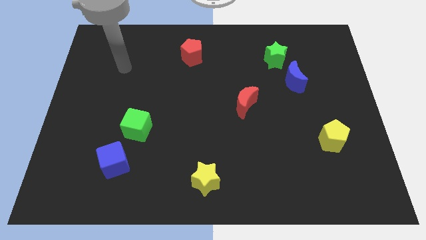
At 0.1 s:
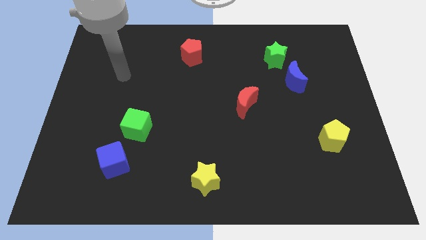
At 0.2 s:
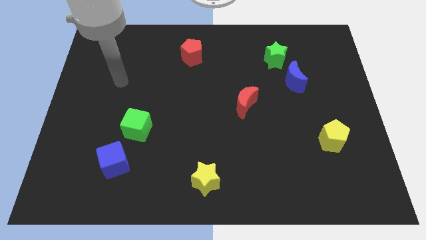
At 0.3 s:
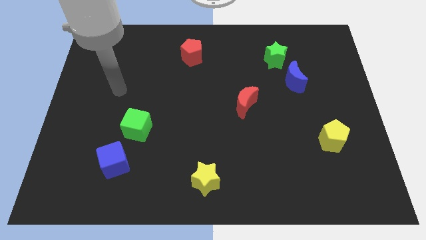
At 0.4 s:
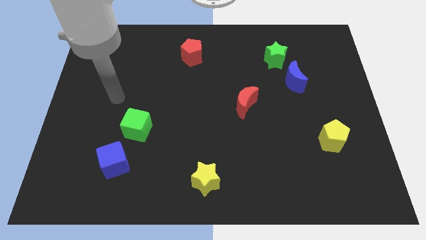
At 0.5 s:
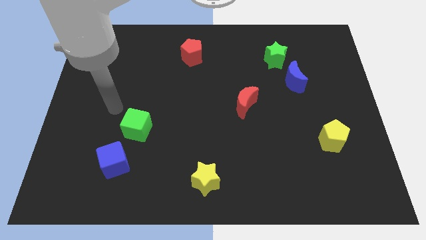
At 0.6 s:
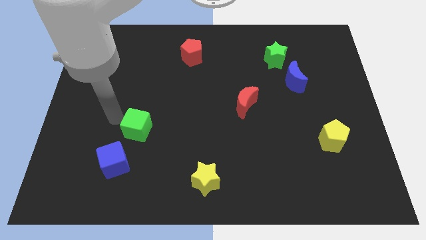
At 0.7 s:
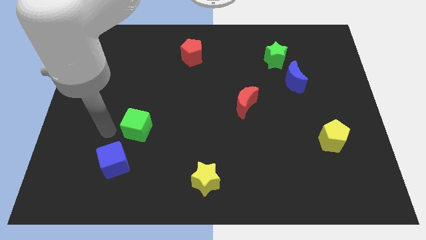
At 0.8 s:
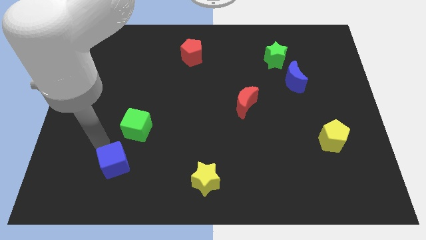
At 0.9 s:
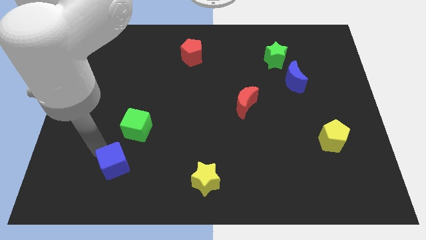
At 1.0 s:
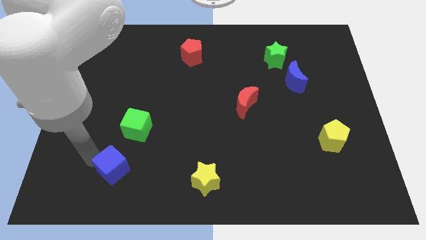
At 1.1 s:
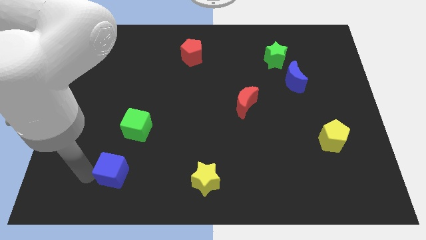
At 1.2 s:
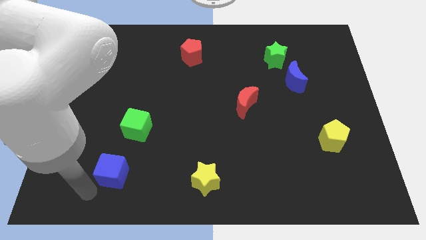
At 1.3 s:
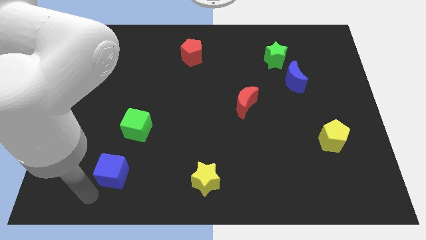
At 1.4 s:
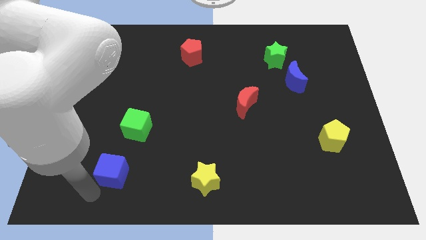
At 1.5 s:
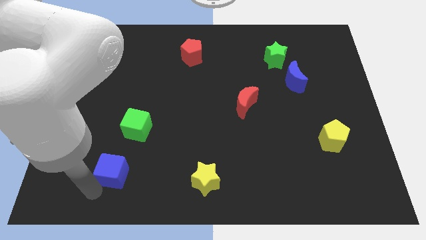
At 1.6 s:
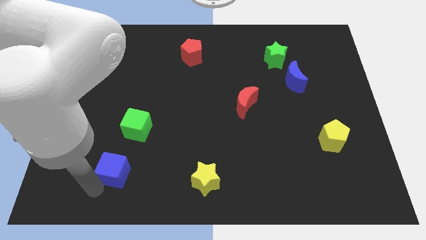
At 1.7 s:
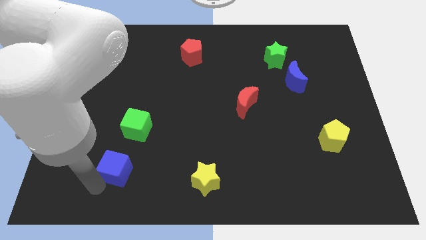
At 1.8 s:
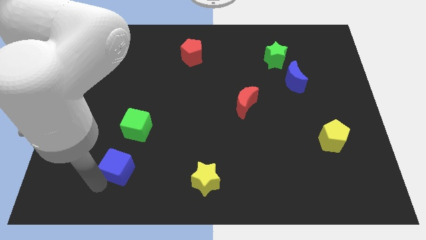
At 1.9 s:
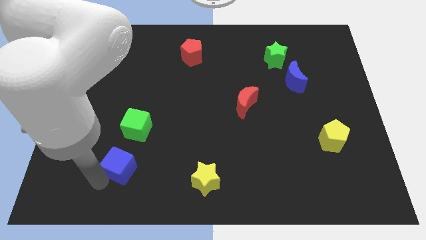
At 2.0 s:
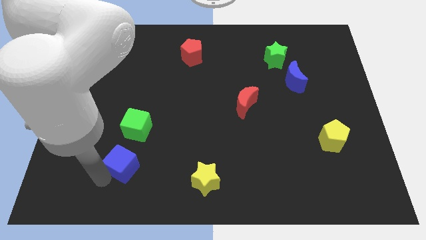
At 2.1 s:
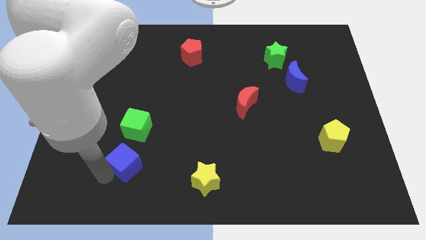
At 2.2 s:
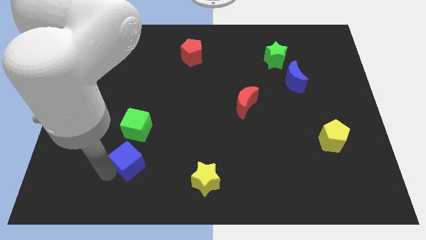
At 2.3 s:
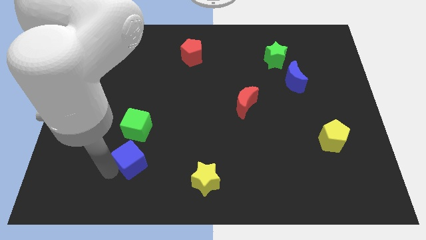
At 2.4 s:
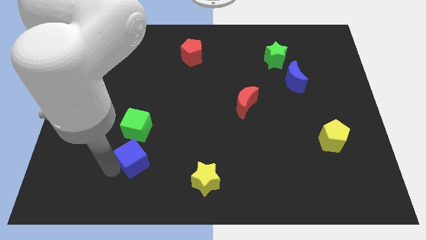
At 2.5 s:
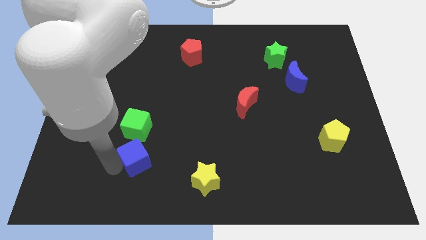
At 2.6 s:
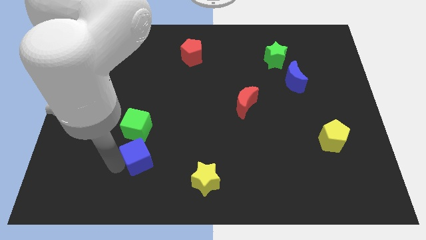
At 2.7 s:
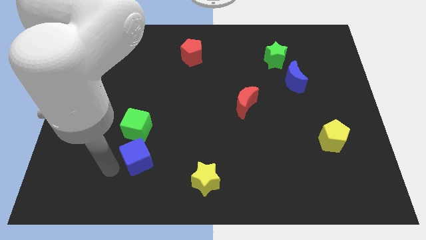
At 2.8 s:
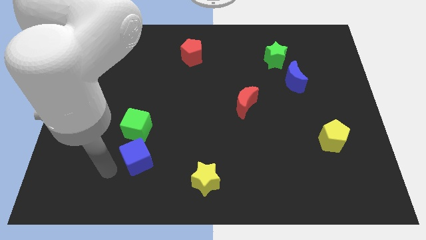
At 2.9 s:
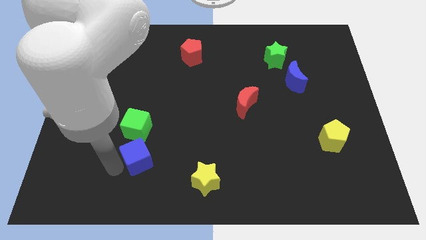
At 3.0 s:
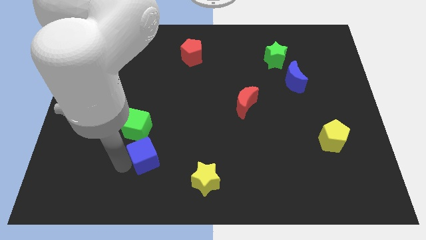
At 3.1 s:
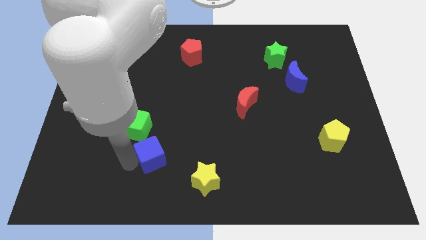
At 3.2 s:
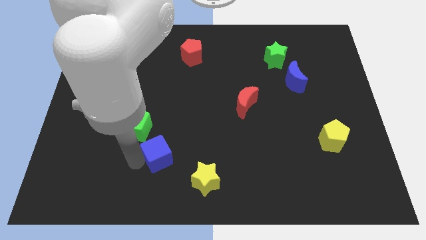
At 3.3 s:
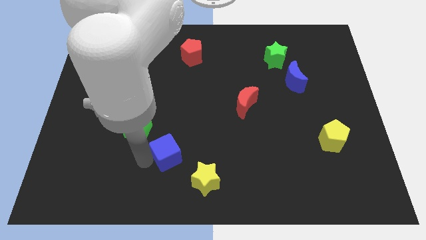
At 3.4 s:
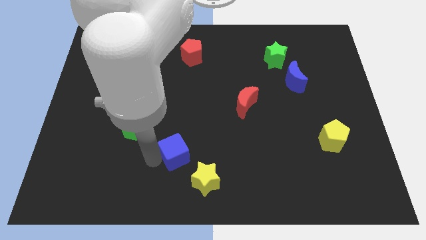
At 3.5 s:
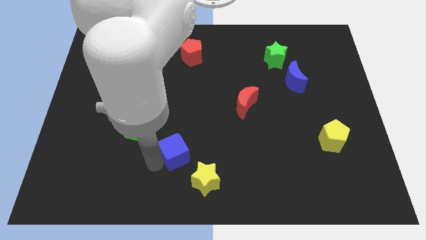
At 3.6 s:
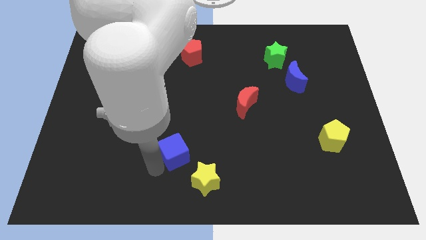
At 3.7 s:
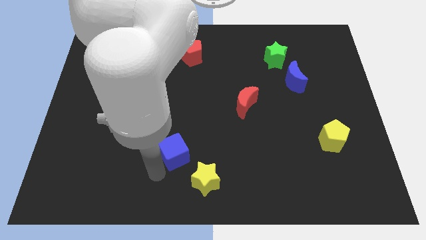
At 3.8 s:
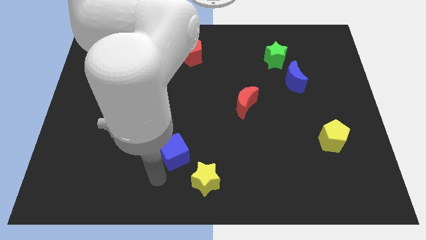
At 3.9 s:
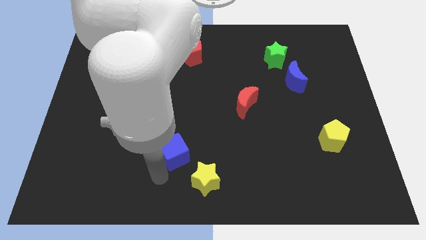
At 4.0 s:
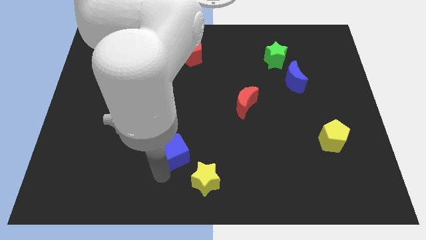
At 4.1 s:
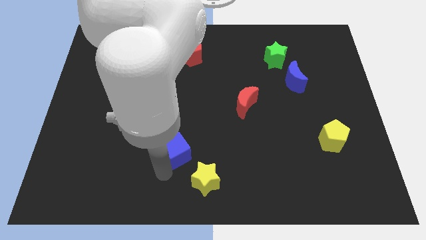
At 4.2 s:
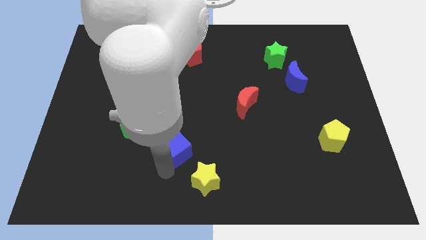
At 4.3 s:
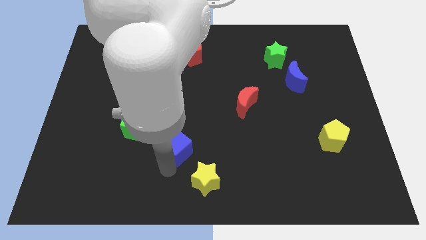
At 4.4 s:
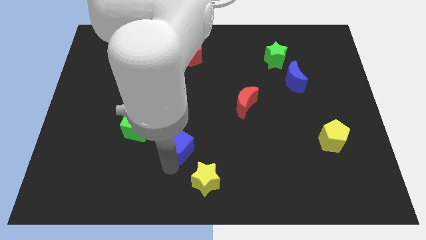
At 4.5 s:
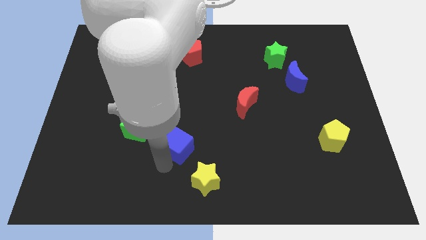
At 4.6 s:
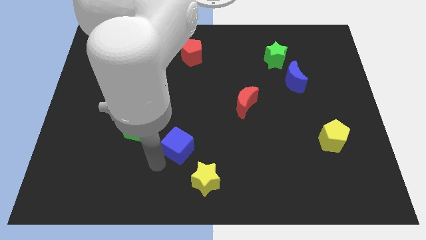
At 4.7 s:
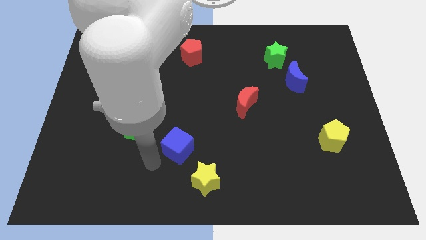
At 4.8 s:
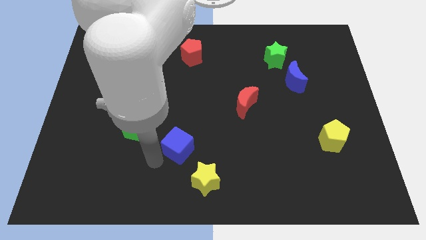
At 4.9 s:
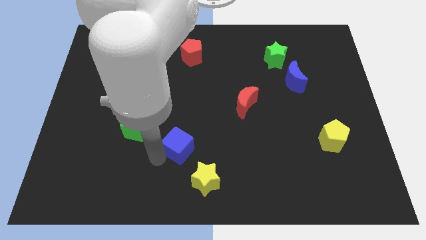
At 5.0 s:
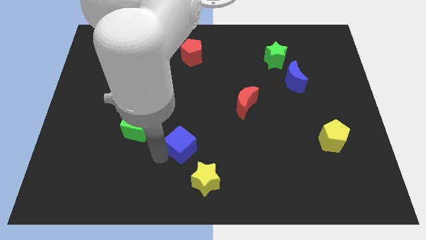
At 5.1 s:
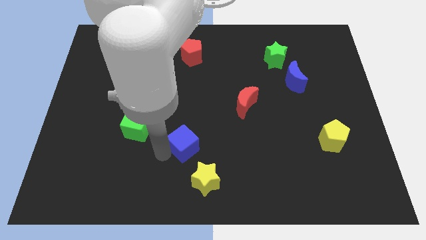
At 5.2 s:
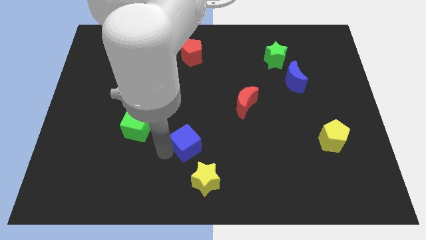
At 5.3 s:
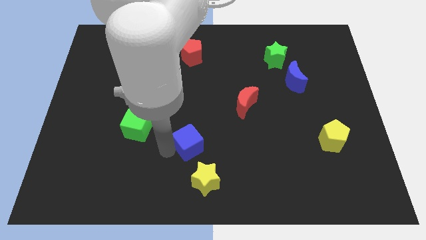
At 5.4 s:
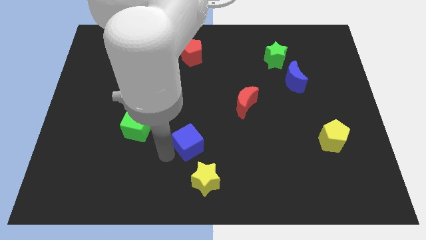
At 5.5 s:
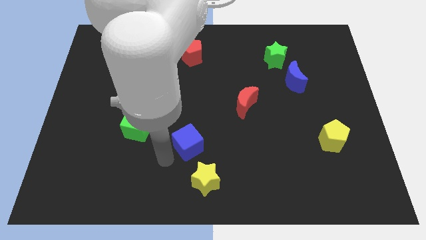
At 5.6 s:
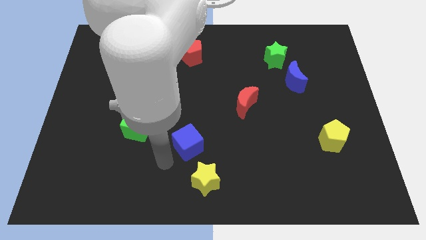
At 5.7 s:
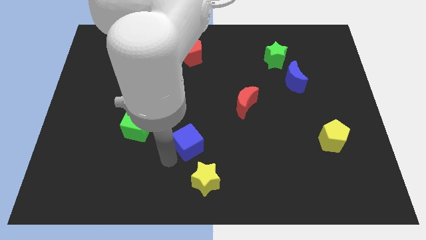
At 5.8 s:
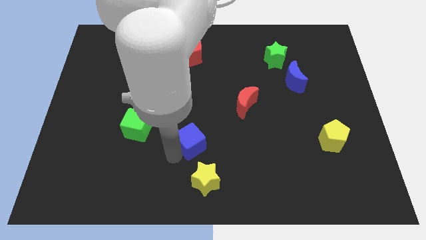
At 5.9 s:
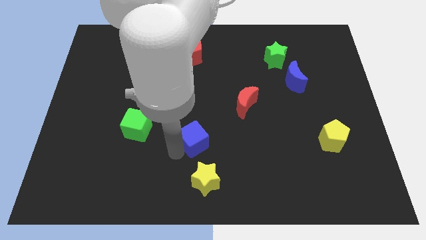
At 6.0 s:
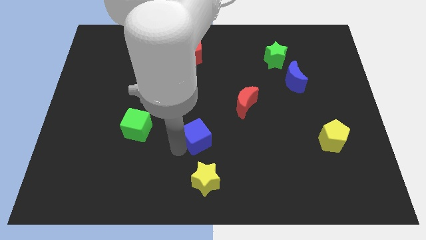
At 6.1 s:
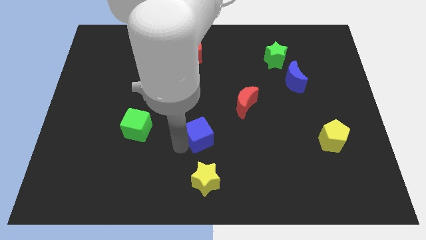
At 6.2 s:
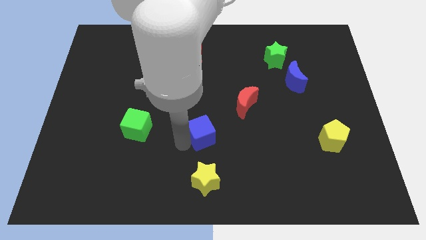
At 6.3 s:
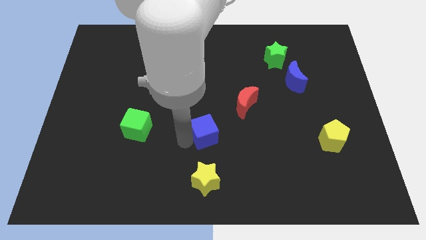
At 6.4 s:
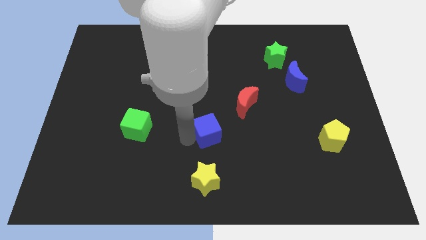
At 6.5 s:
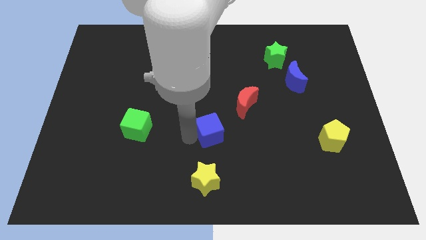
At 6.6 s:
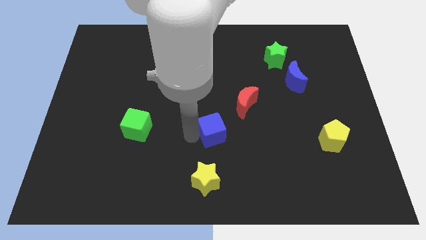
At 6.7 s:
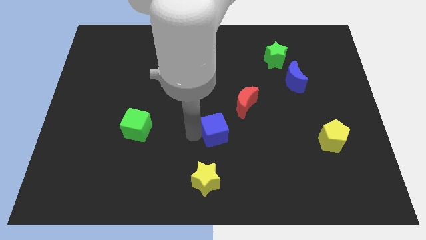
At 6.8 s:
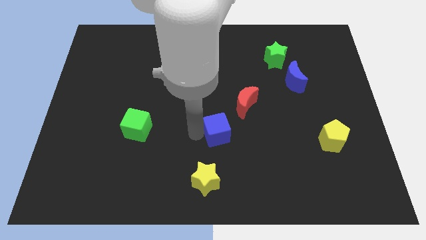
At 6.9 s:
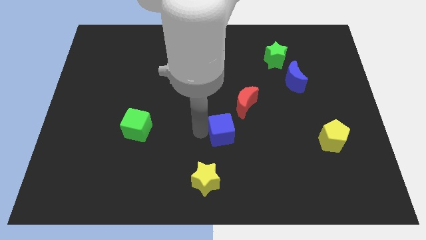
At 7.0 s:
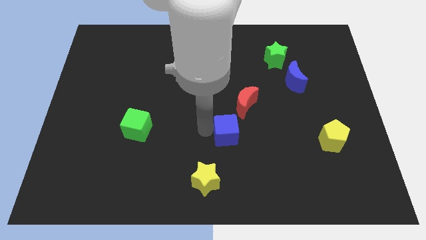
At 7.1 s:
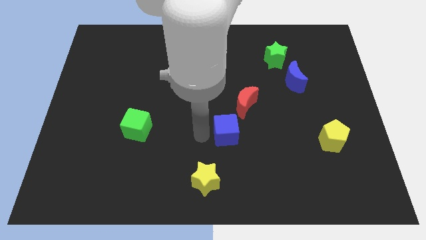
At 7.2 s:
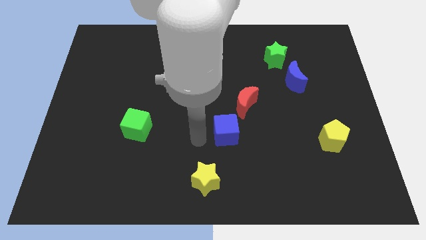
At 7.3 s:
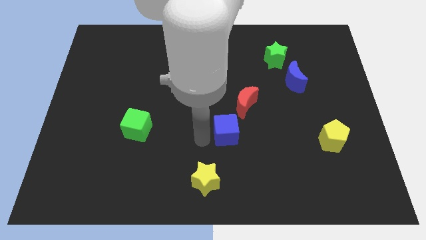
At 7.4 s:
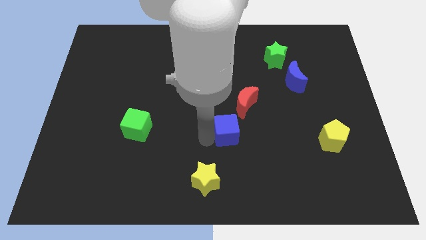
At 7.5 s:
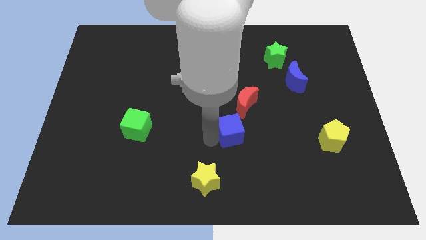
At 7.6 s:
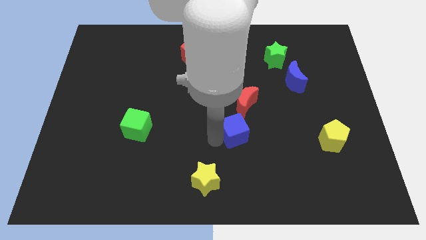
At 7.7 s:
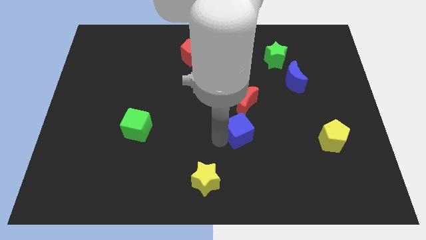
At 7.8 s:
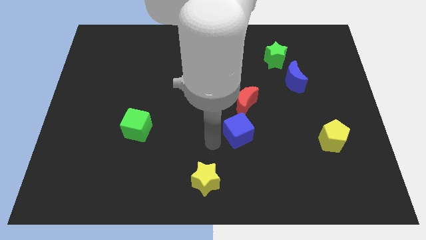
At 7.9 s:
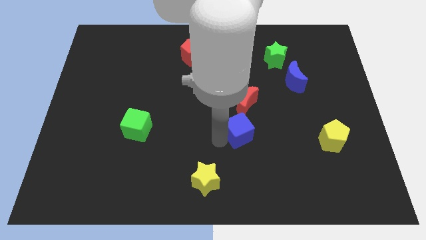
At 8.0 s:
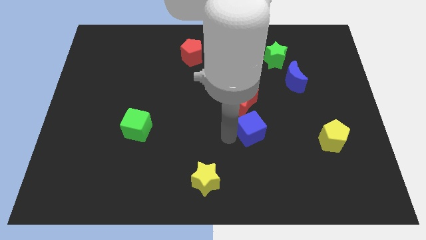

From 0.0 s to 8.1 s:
put the blue cube to the bottom right side of the red moon
